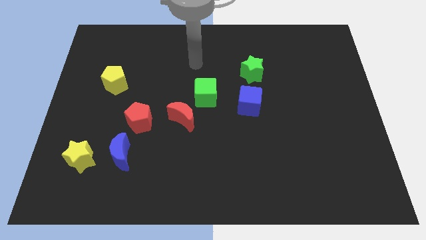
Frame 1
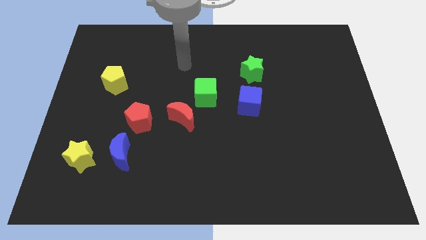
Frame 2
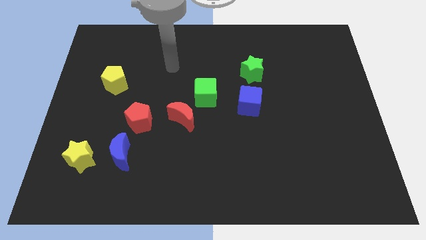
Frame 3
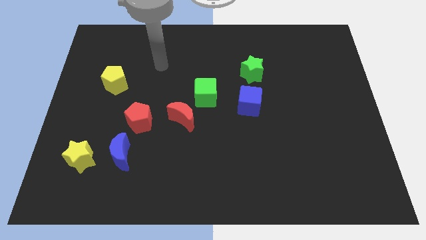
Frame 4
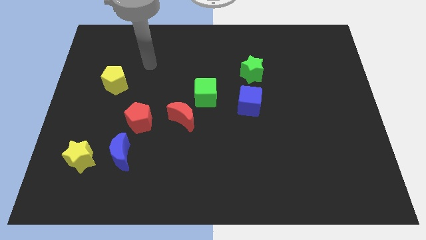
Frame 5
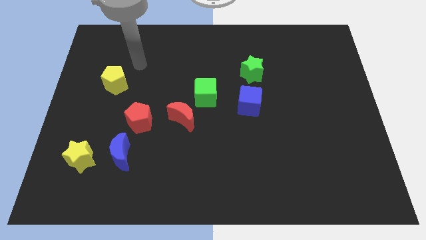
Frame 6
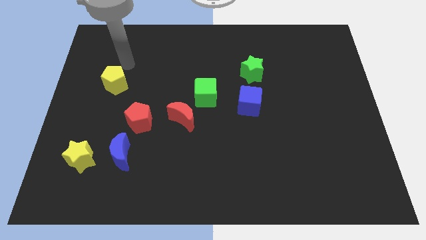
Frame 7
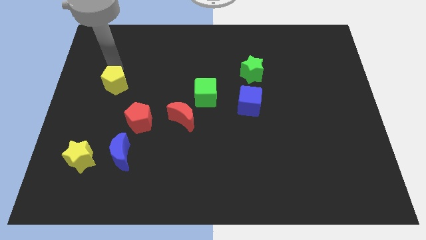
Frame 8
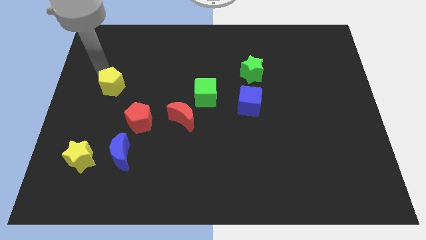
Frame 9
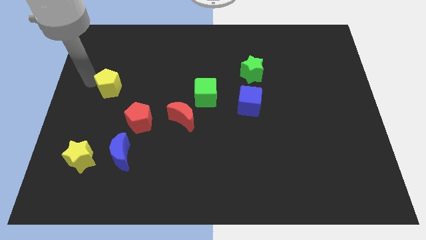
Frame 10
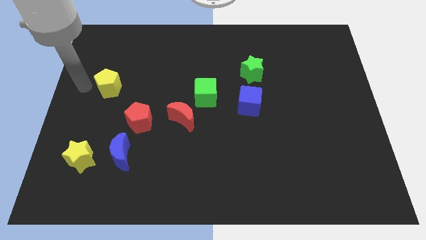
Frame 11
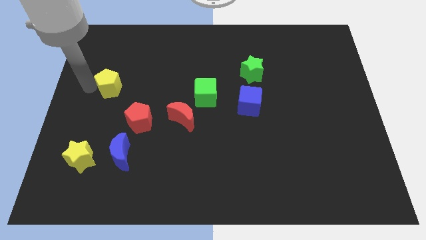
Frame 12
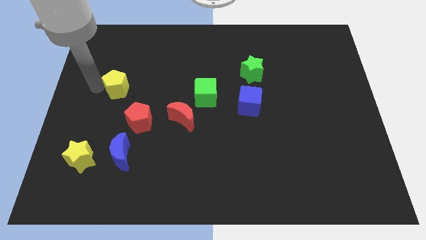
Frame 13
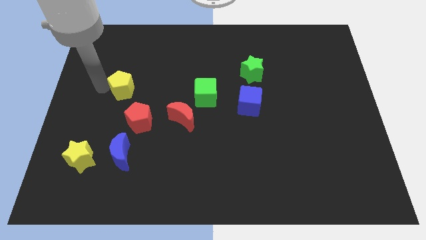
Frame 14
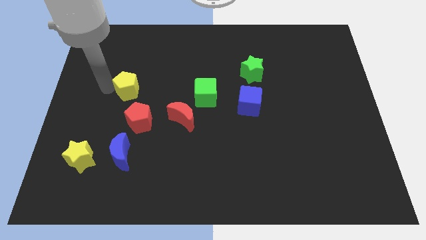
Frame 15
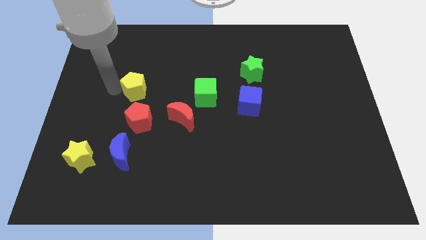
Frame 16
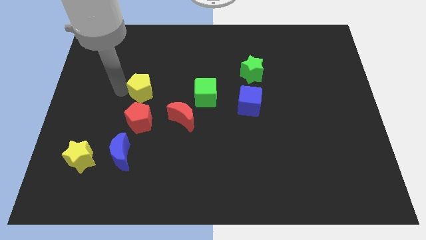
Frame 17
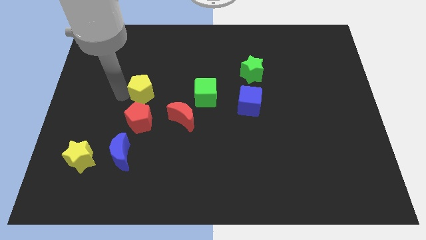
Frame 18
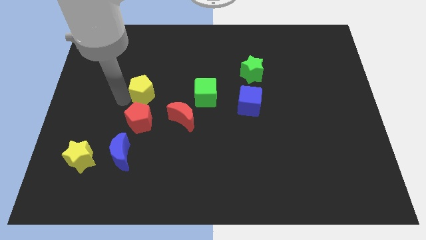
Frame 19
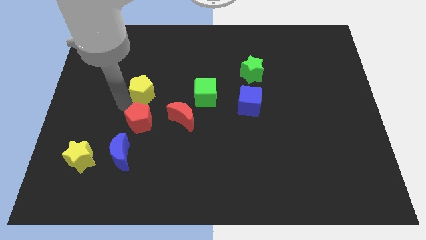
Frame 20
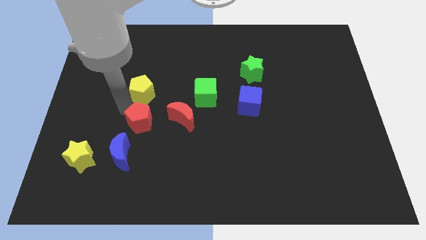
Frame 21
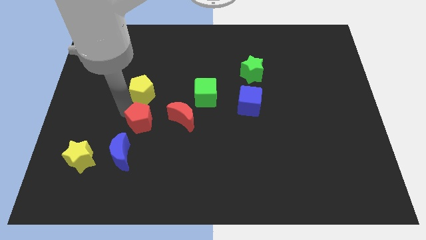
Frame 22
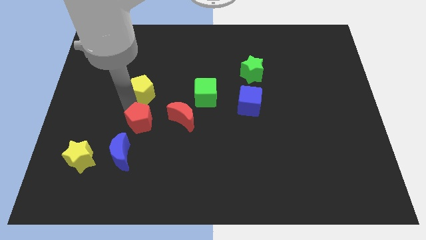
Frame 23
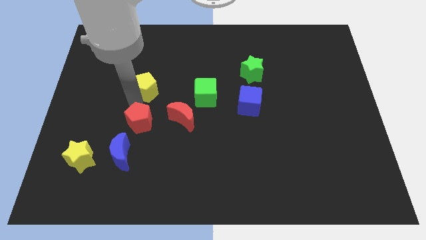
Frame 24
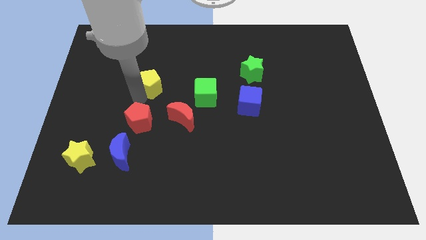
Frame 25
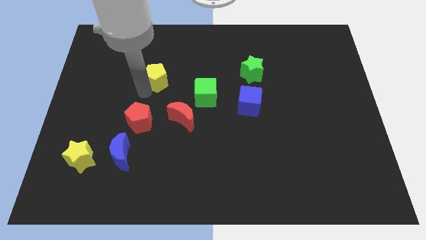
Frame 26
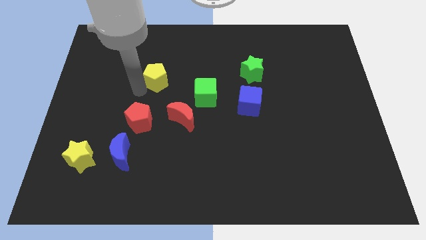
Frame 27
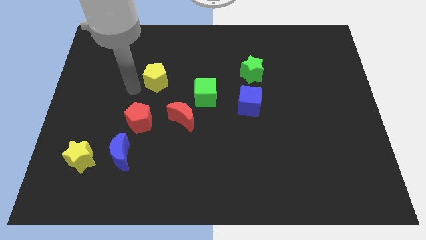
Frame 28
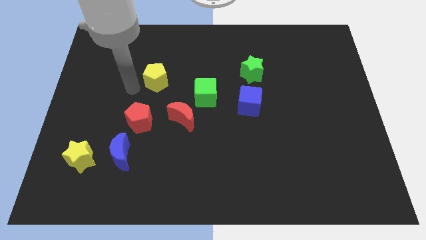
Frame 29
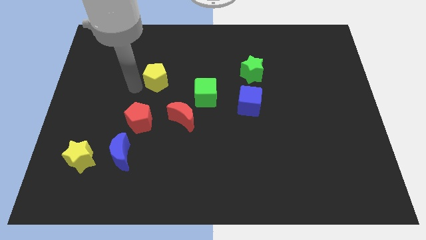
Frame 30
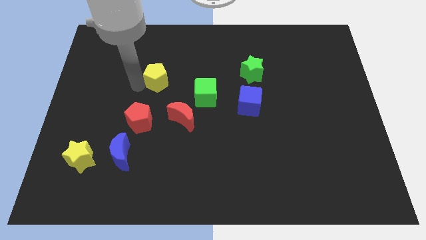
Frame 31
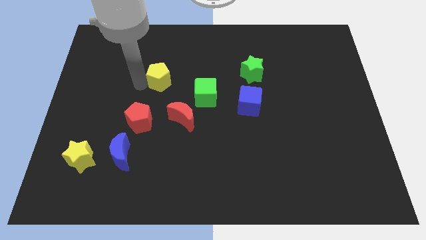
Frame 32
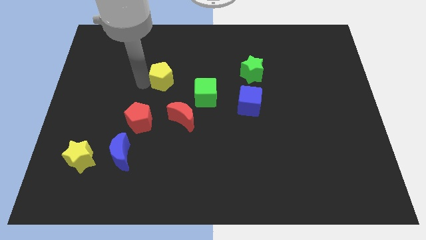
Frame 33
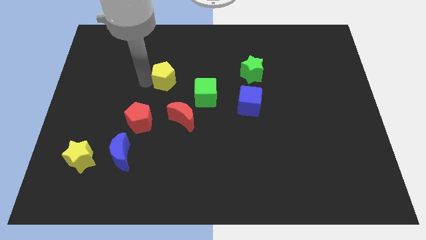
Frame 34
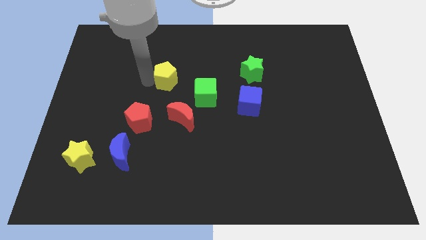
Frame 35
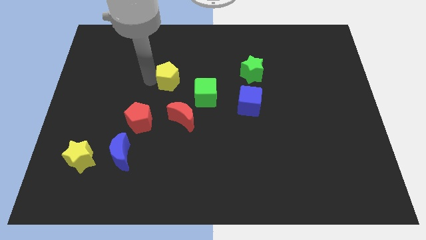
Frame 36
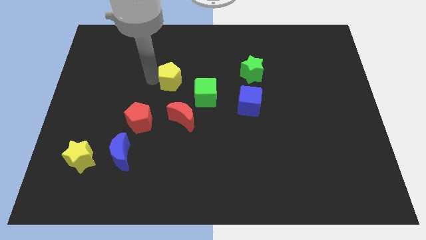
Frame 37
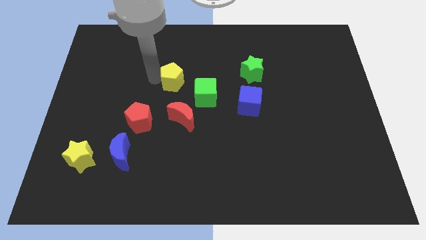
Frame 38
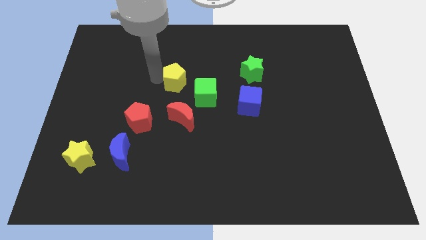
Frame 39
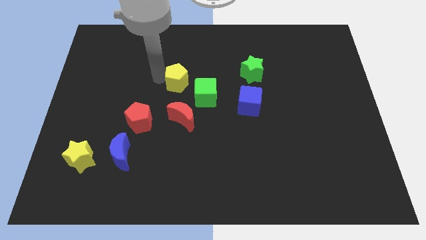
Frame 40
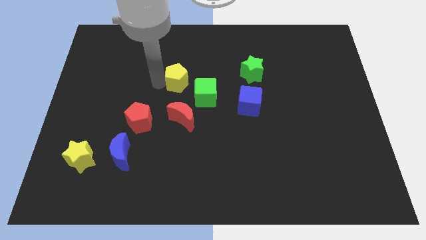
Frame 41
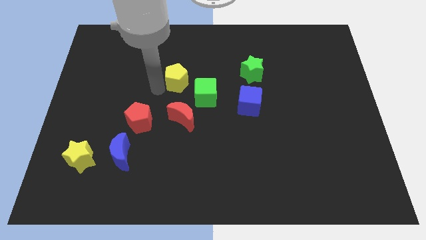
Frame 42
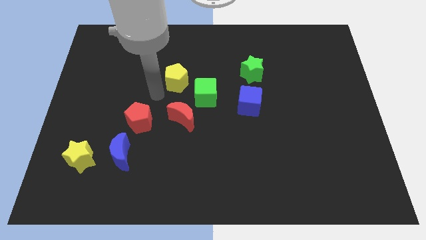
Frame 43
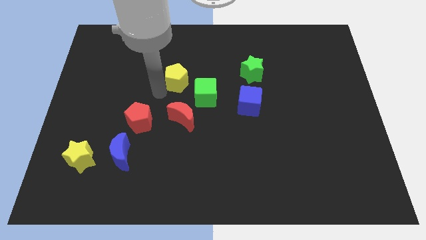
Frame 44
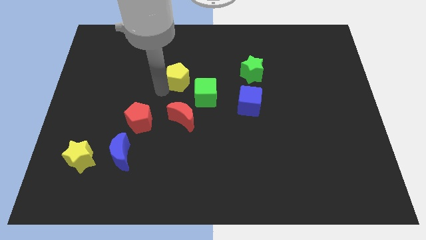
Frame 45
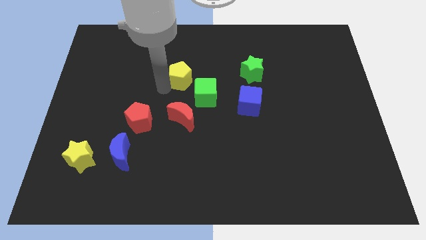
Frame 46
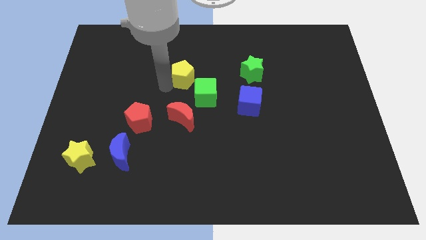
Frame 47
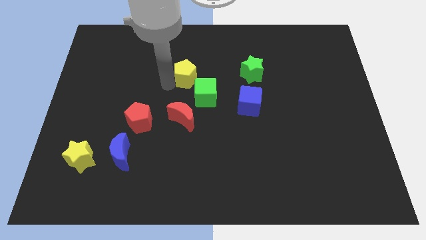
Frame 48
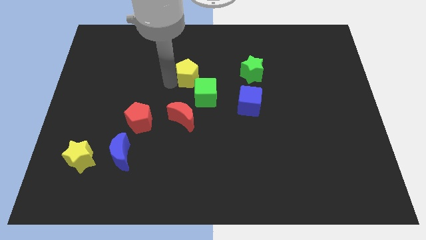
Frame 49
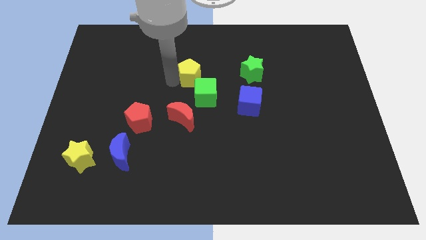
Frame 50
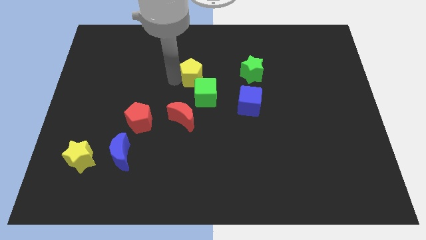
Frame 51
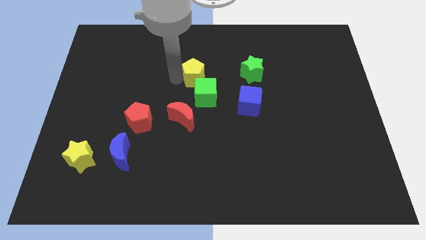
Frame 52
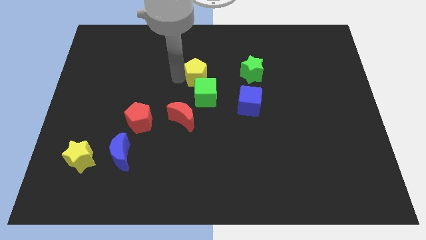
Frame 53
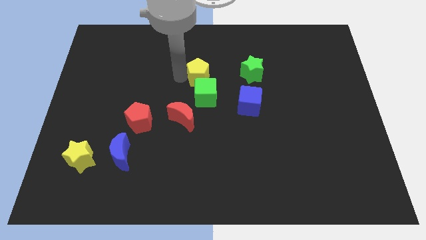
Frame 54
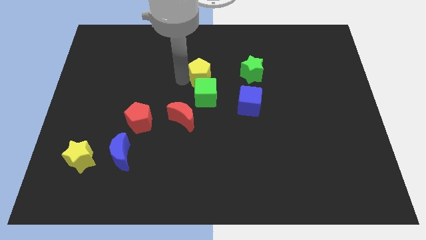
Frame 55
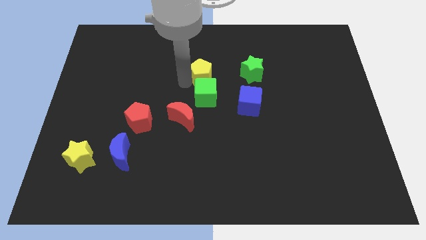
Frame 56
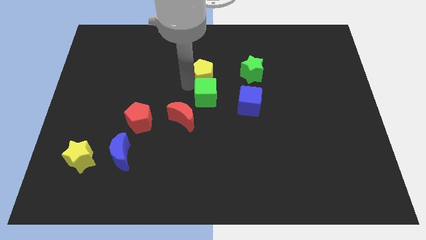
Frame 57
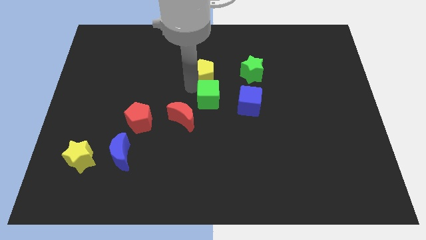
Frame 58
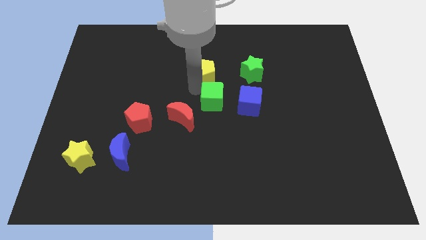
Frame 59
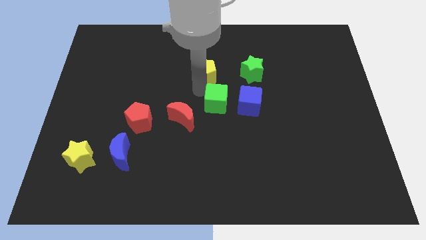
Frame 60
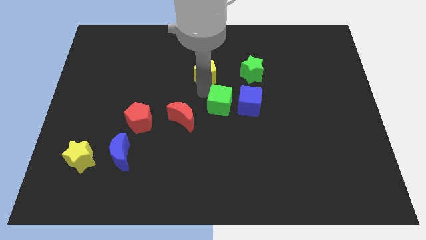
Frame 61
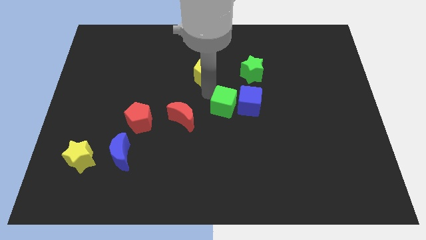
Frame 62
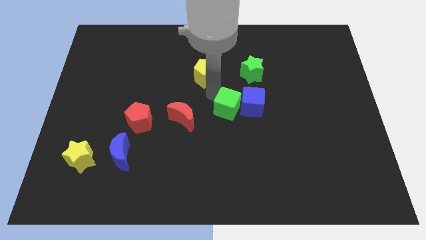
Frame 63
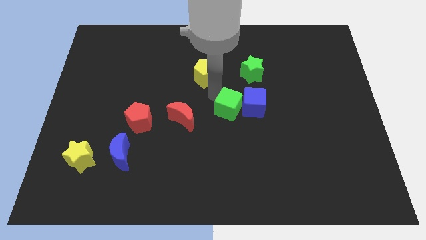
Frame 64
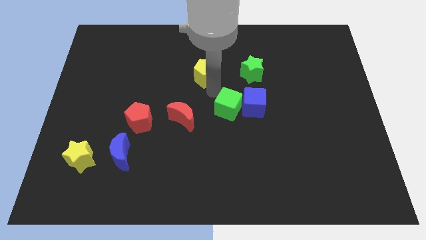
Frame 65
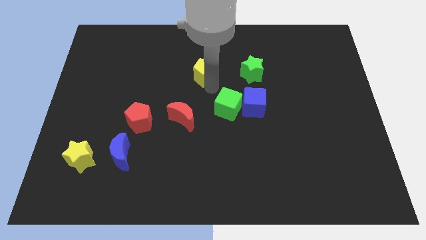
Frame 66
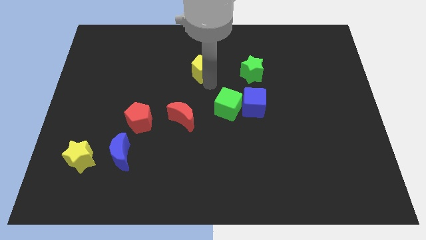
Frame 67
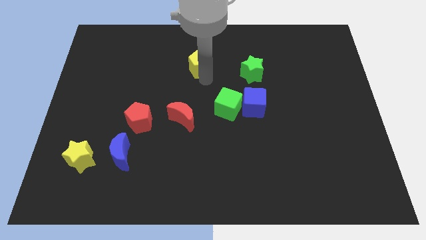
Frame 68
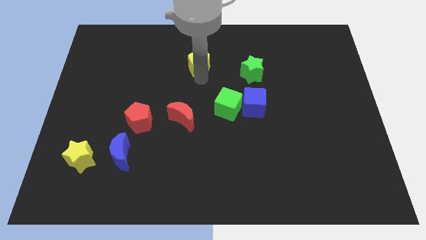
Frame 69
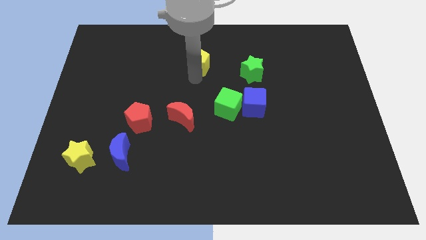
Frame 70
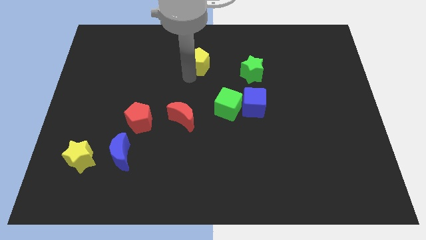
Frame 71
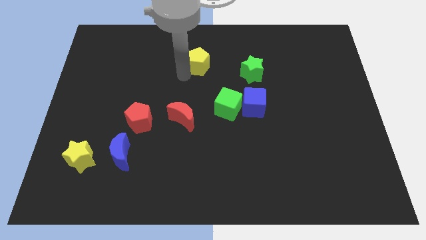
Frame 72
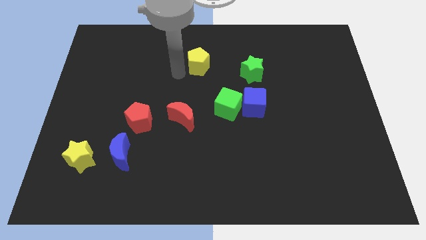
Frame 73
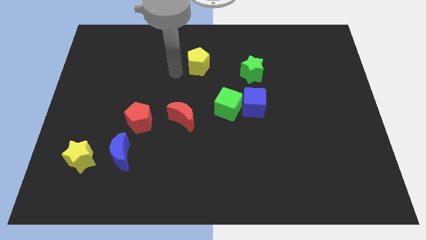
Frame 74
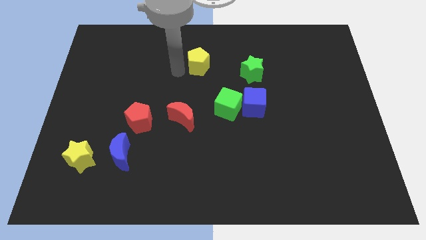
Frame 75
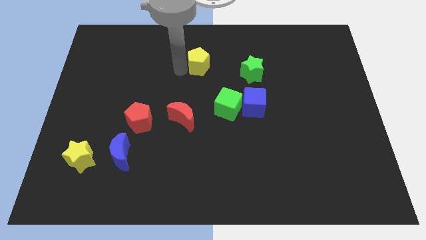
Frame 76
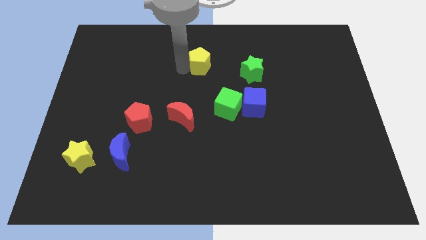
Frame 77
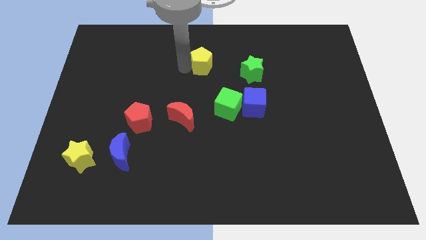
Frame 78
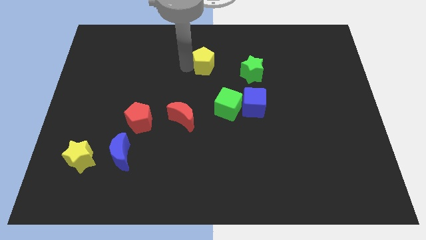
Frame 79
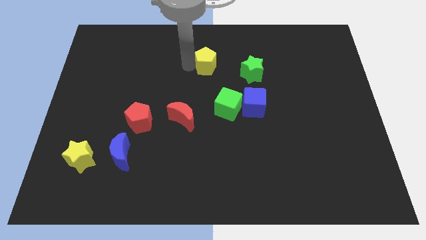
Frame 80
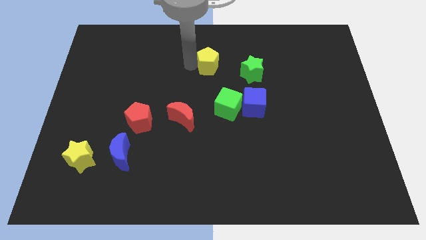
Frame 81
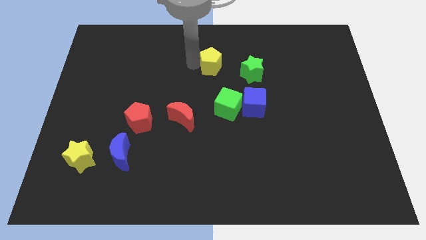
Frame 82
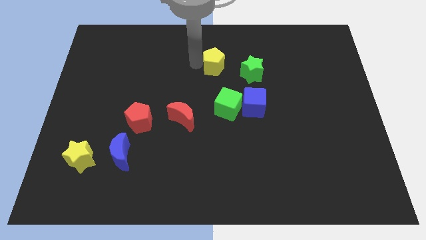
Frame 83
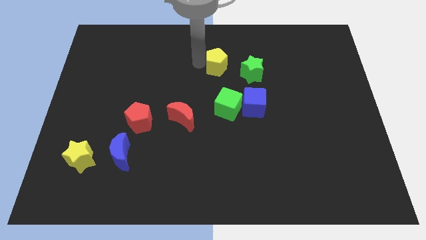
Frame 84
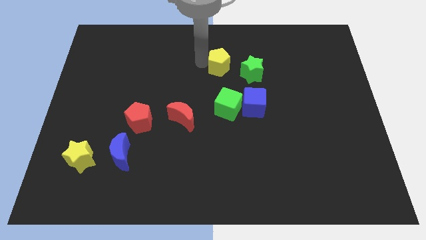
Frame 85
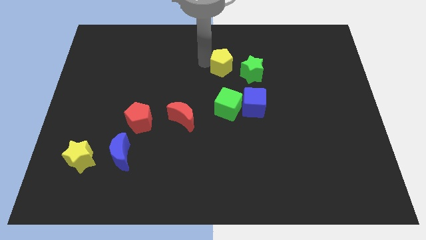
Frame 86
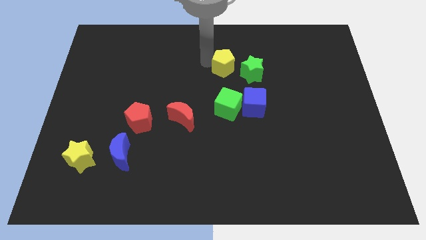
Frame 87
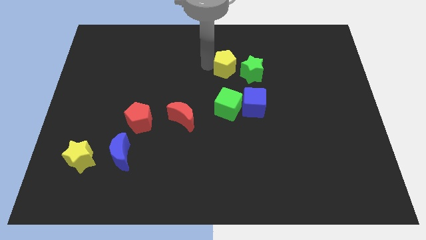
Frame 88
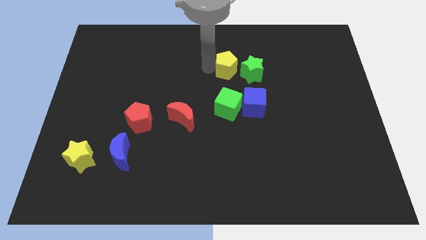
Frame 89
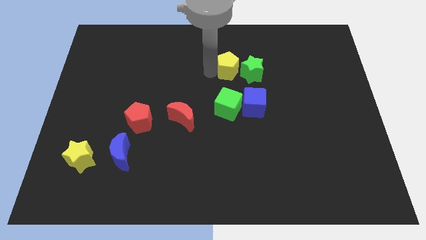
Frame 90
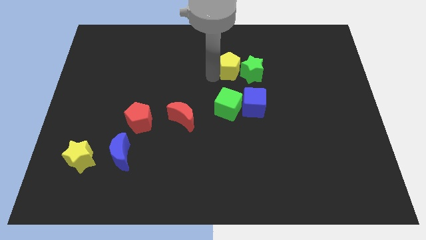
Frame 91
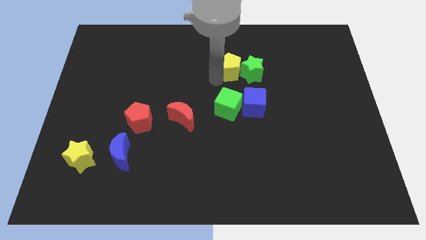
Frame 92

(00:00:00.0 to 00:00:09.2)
put the yellow pentagon to the top side of the blue cube
